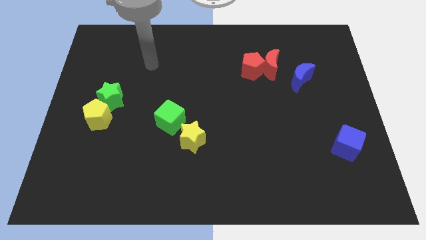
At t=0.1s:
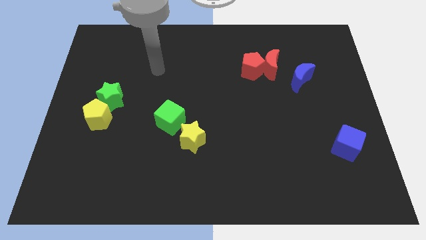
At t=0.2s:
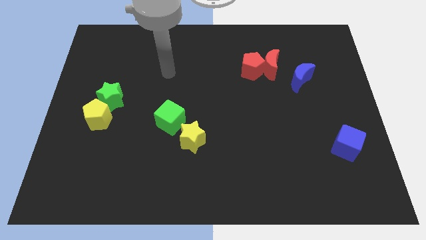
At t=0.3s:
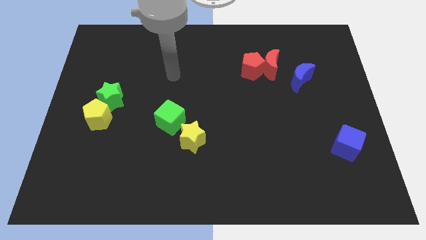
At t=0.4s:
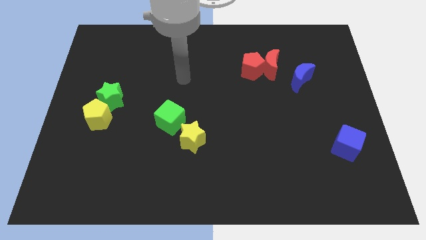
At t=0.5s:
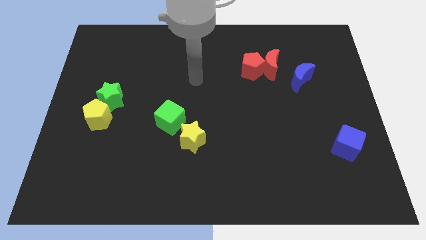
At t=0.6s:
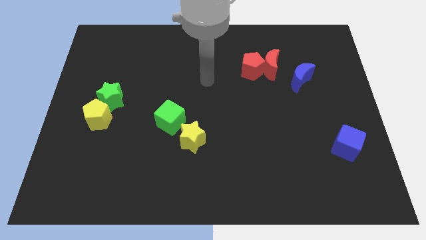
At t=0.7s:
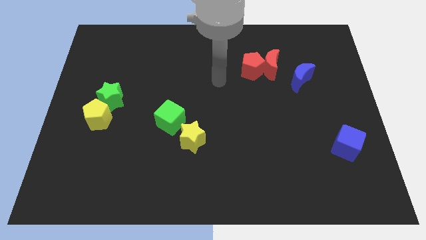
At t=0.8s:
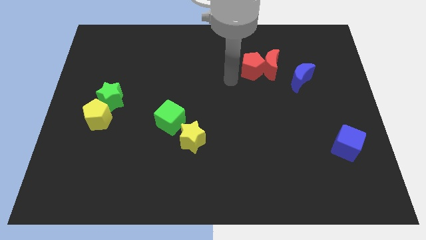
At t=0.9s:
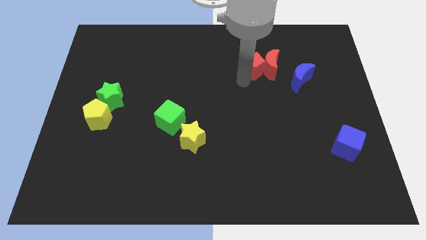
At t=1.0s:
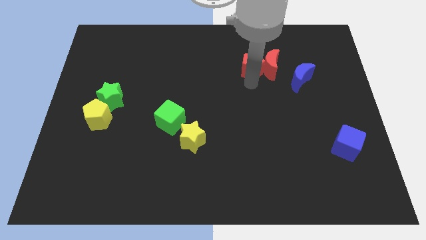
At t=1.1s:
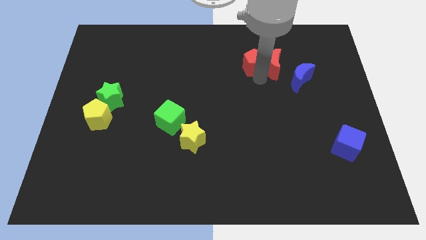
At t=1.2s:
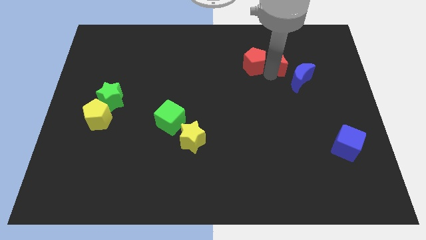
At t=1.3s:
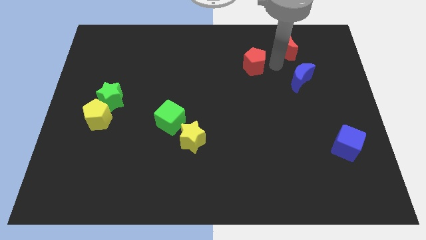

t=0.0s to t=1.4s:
pull the red pentagon apart from the red moon

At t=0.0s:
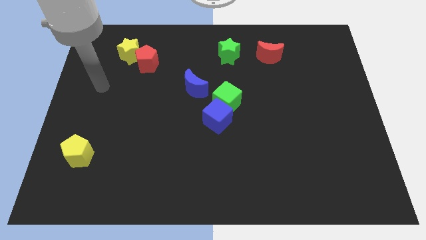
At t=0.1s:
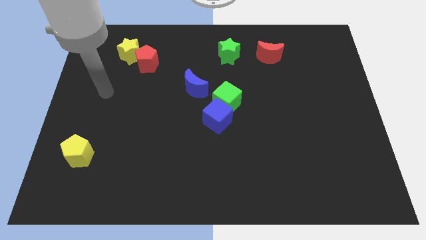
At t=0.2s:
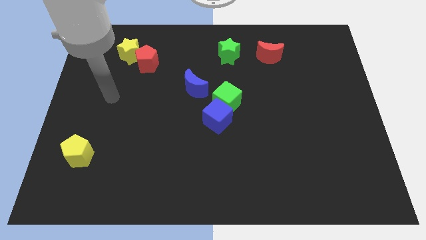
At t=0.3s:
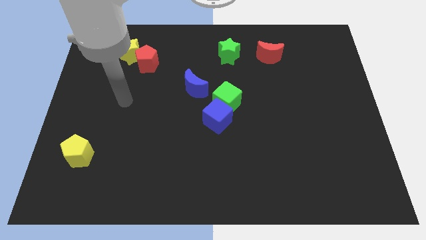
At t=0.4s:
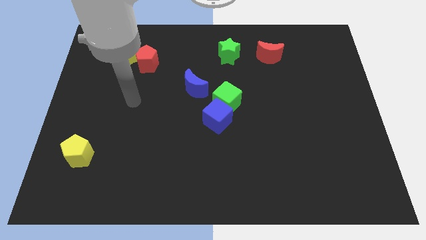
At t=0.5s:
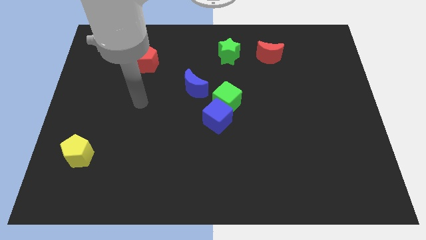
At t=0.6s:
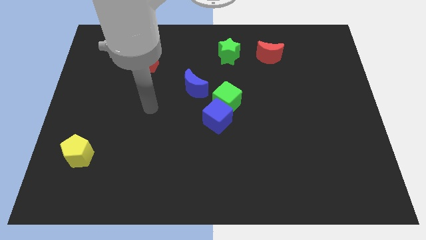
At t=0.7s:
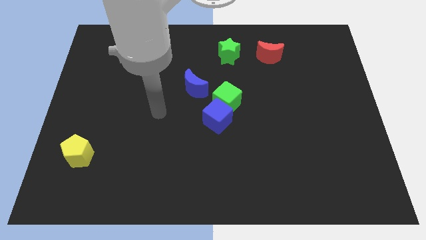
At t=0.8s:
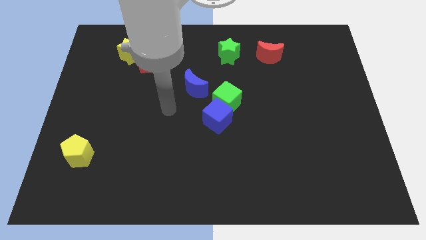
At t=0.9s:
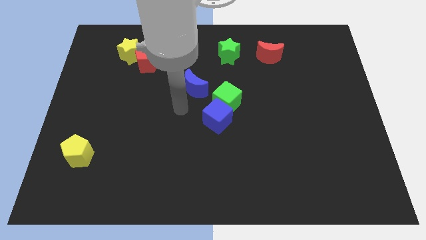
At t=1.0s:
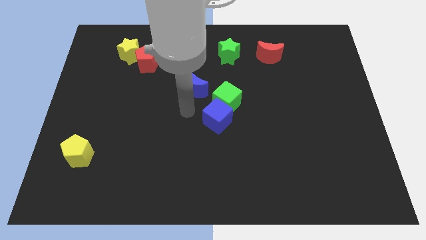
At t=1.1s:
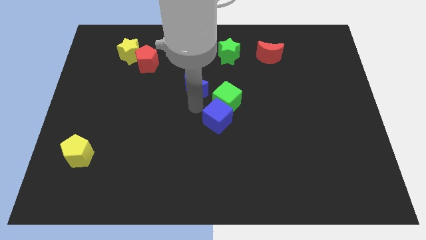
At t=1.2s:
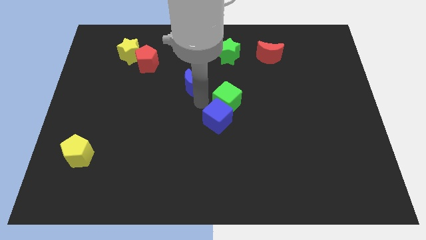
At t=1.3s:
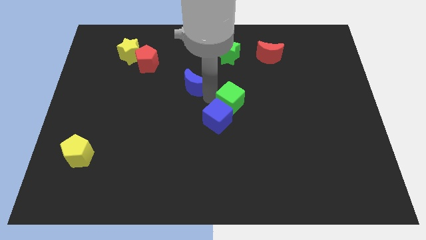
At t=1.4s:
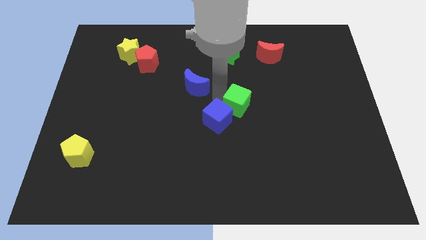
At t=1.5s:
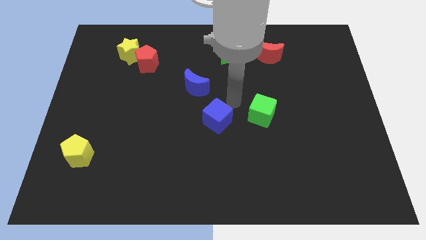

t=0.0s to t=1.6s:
pull the blue cube apart from the green cube

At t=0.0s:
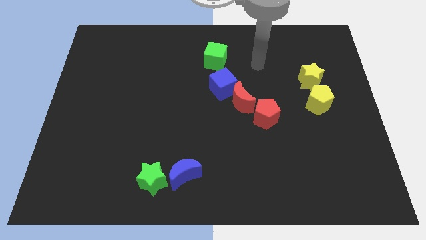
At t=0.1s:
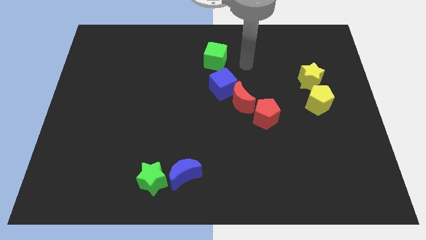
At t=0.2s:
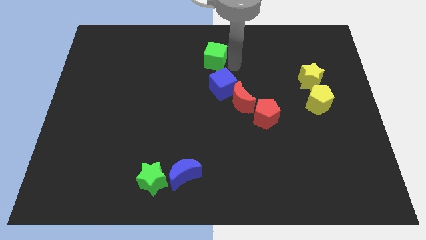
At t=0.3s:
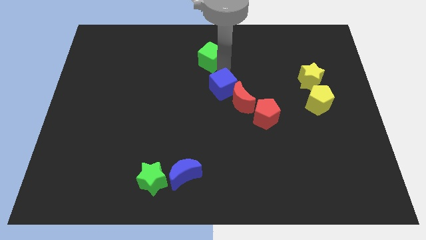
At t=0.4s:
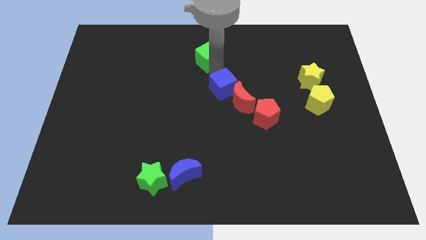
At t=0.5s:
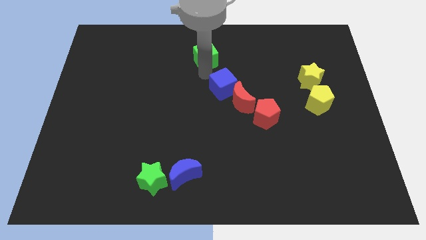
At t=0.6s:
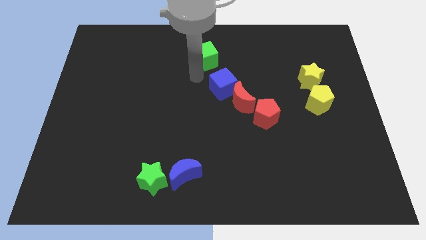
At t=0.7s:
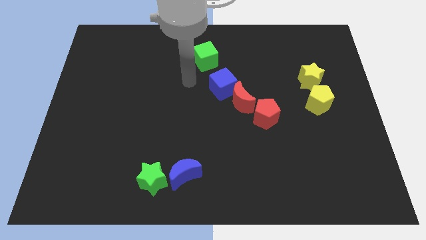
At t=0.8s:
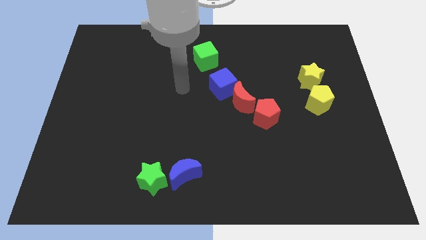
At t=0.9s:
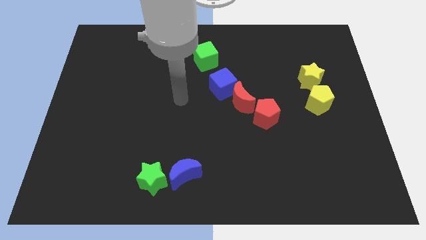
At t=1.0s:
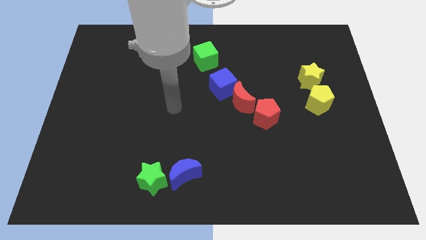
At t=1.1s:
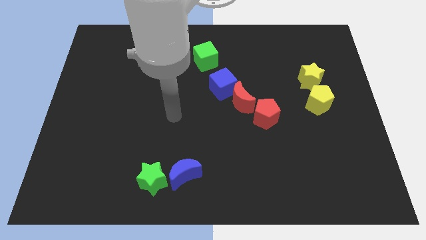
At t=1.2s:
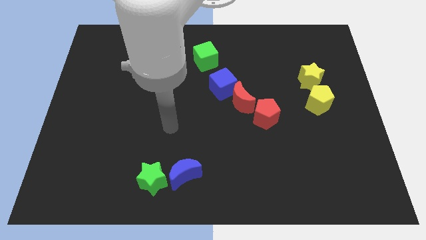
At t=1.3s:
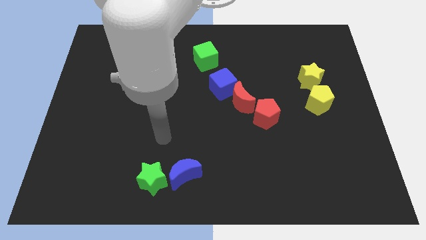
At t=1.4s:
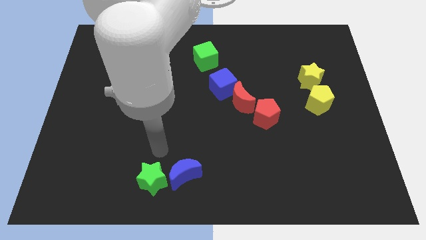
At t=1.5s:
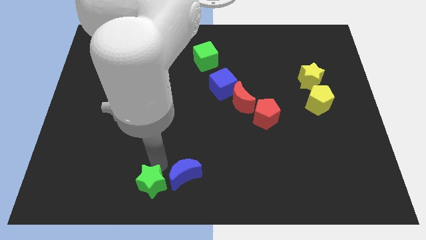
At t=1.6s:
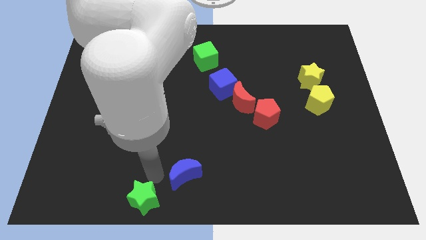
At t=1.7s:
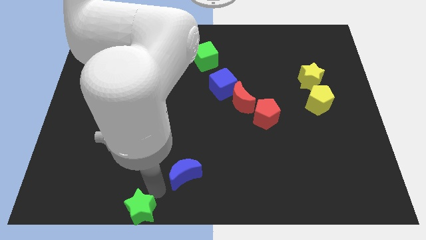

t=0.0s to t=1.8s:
move the blue moon away from the green star

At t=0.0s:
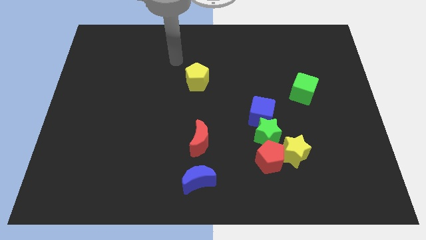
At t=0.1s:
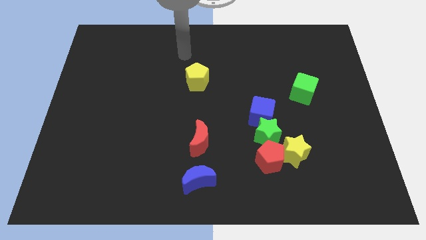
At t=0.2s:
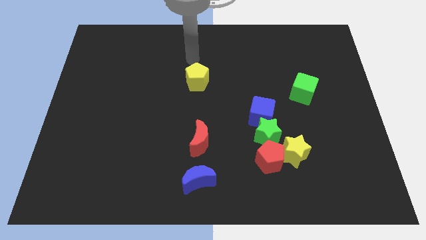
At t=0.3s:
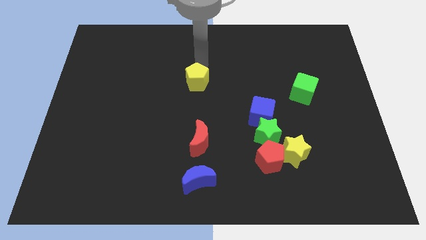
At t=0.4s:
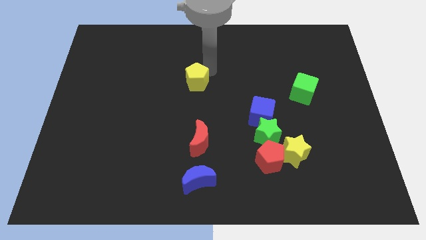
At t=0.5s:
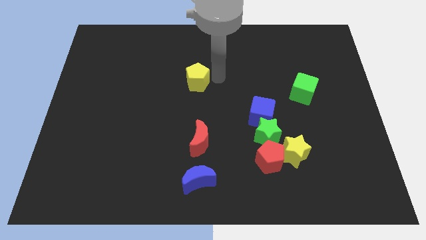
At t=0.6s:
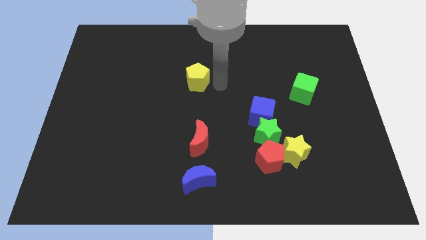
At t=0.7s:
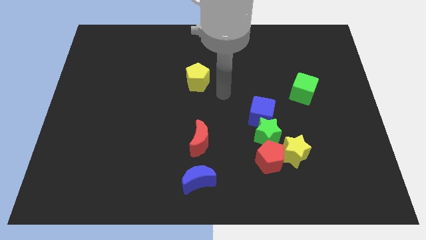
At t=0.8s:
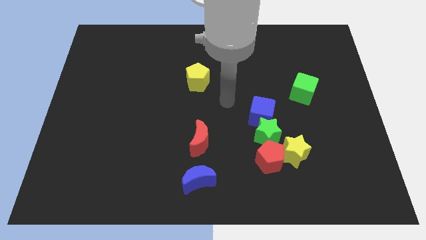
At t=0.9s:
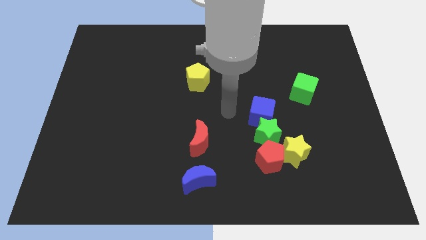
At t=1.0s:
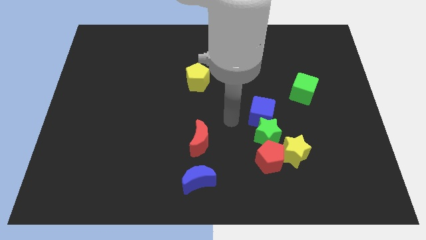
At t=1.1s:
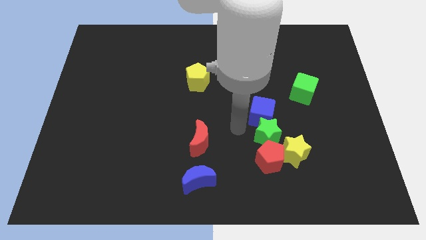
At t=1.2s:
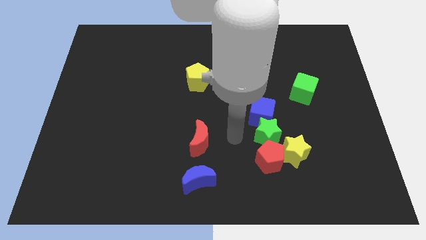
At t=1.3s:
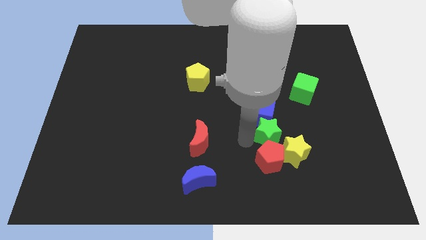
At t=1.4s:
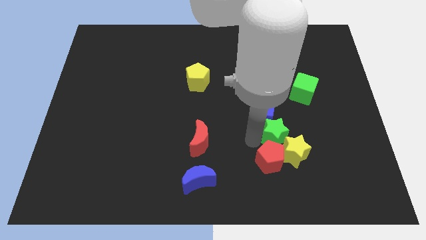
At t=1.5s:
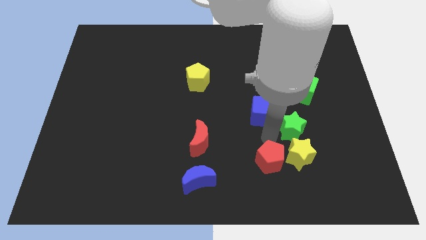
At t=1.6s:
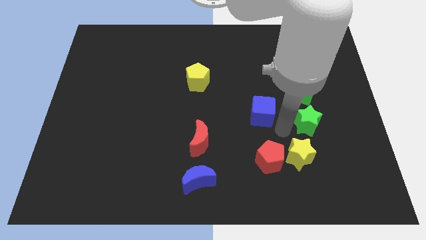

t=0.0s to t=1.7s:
pull the blue cube apart from the green star

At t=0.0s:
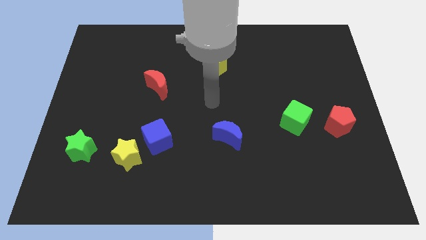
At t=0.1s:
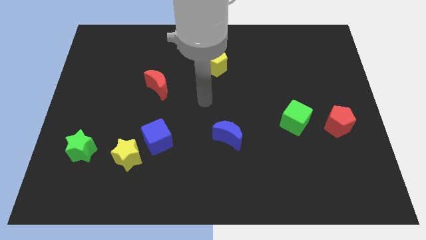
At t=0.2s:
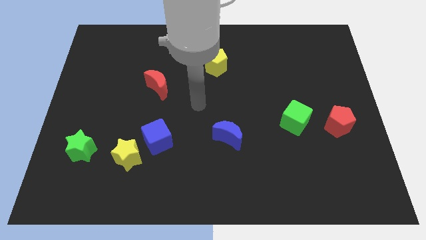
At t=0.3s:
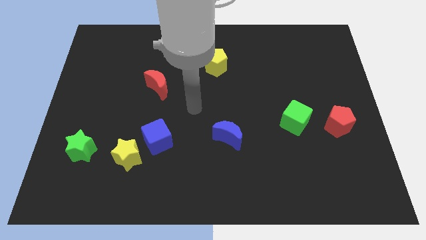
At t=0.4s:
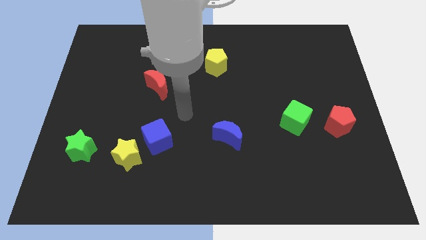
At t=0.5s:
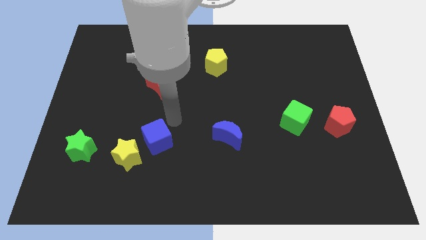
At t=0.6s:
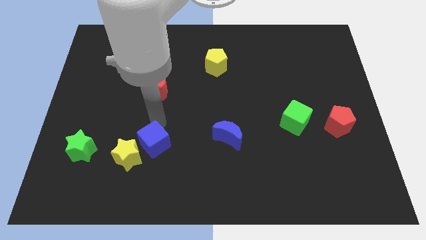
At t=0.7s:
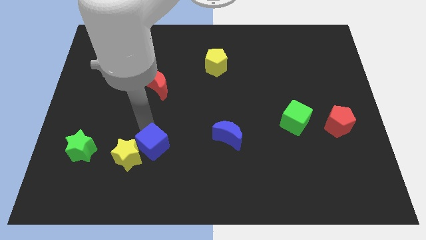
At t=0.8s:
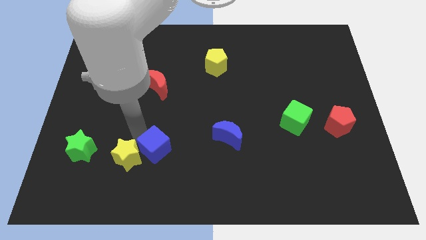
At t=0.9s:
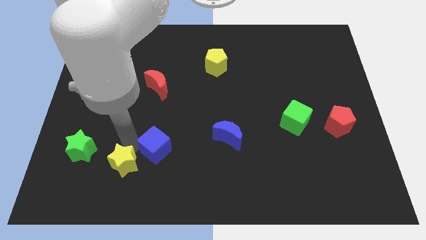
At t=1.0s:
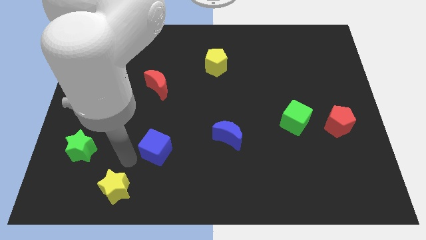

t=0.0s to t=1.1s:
separate the blue cube from the yellow star

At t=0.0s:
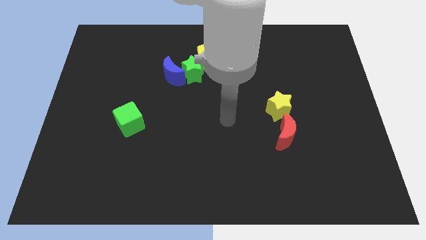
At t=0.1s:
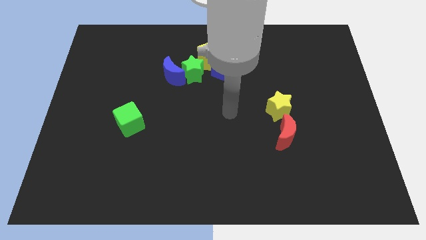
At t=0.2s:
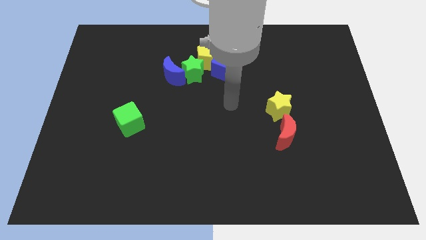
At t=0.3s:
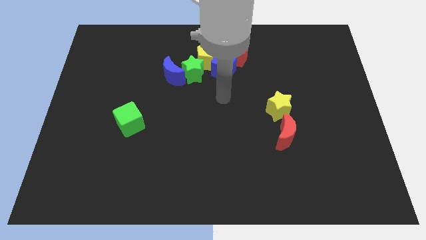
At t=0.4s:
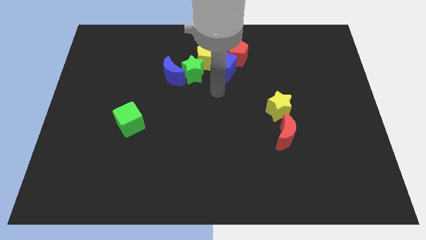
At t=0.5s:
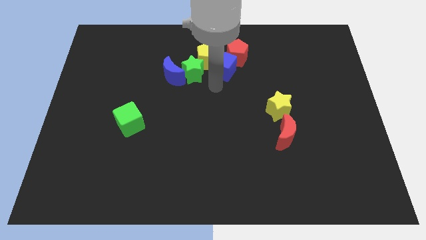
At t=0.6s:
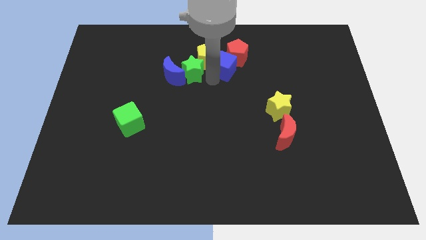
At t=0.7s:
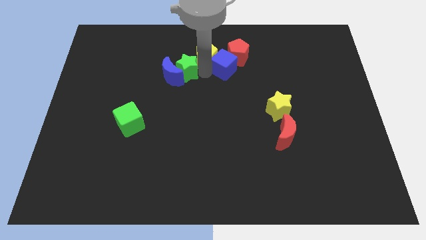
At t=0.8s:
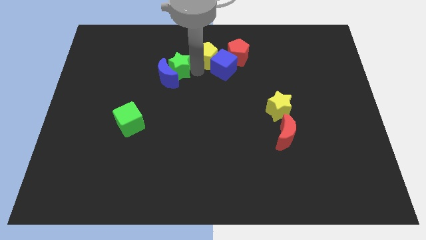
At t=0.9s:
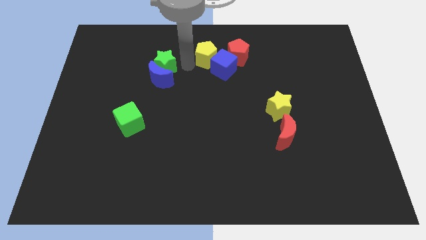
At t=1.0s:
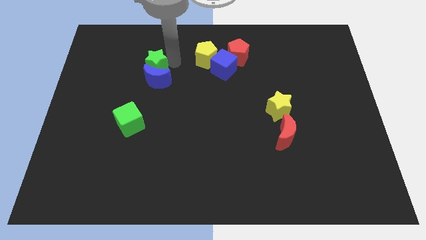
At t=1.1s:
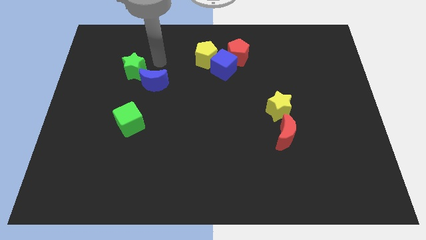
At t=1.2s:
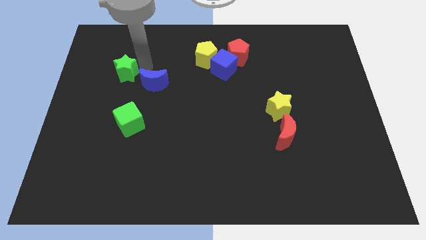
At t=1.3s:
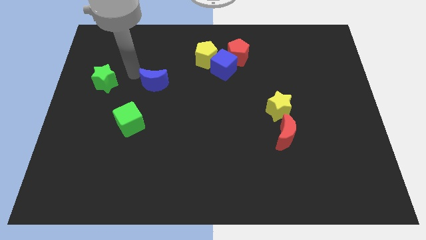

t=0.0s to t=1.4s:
pull the blue moon apart from the green star

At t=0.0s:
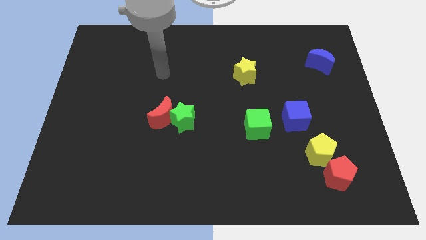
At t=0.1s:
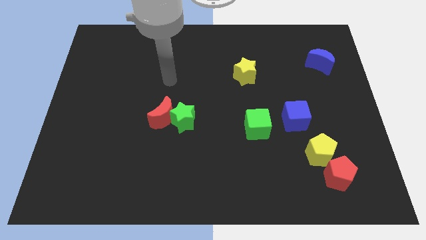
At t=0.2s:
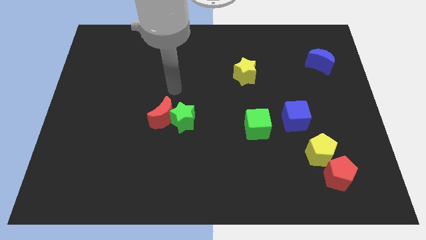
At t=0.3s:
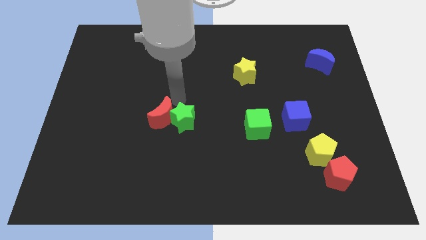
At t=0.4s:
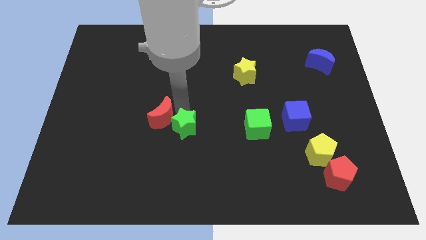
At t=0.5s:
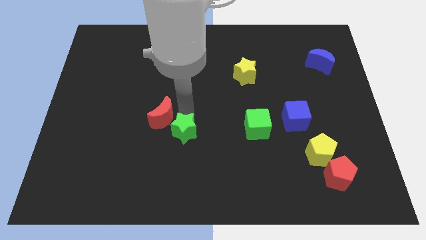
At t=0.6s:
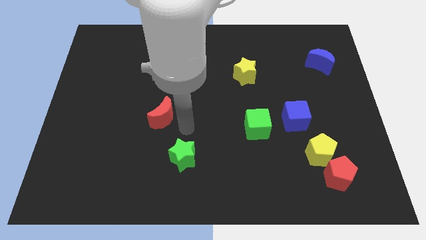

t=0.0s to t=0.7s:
pull the red moon apart from the green star
